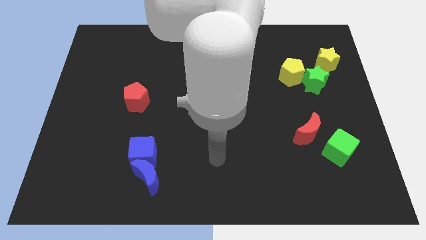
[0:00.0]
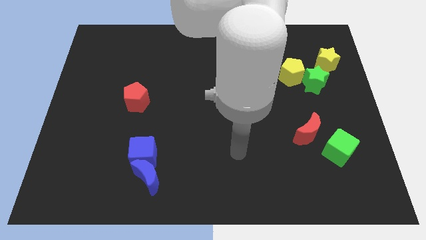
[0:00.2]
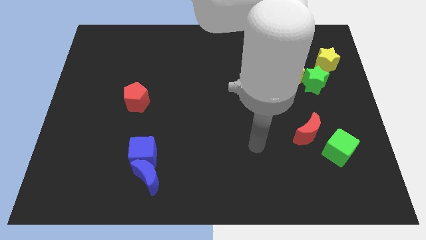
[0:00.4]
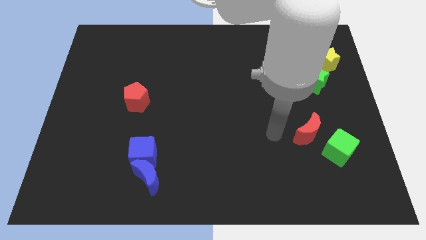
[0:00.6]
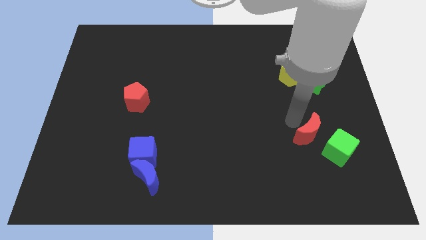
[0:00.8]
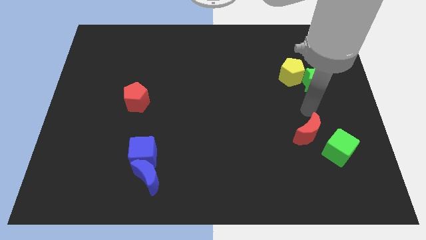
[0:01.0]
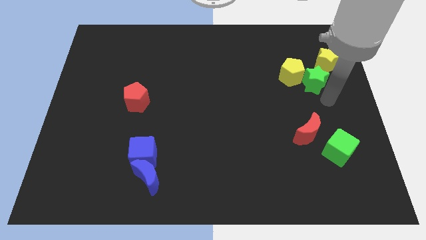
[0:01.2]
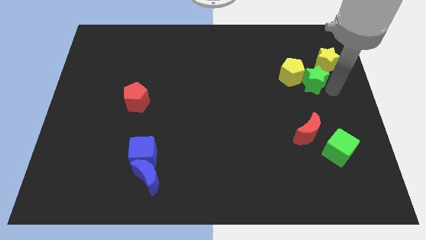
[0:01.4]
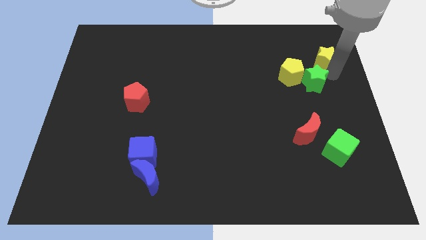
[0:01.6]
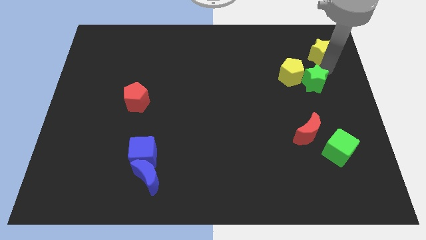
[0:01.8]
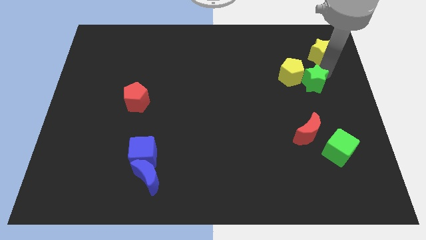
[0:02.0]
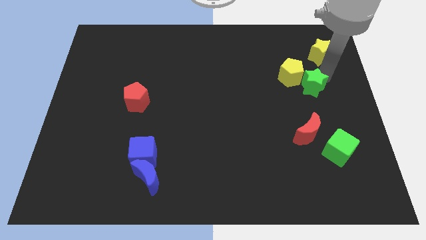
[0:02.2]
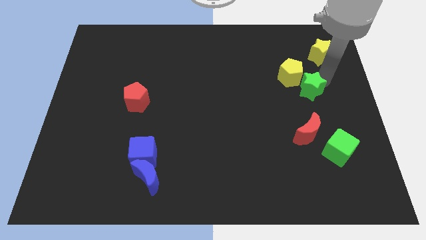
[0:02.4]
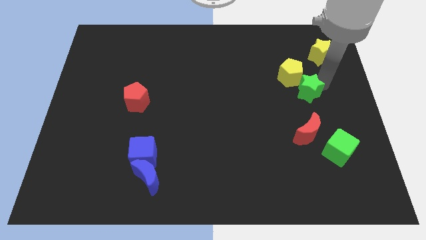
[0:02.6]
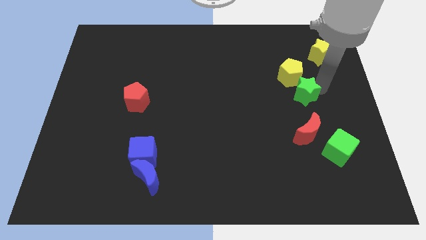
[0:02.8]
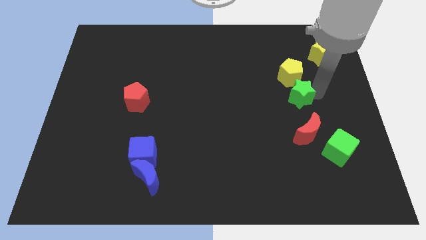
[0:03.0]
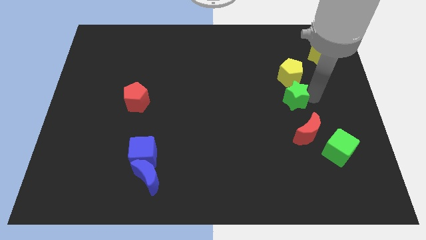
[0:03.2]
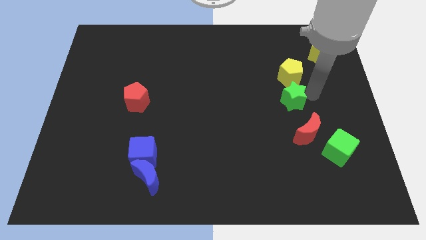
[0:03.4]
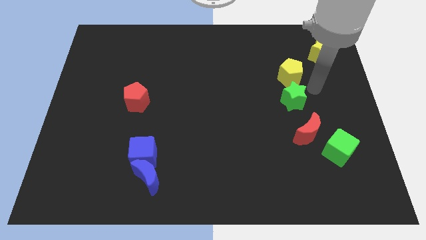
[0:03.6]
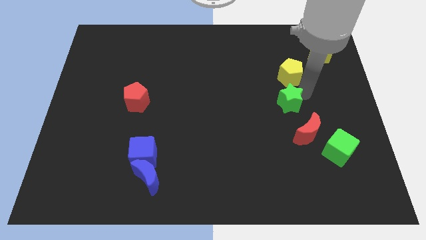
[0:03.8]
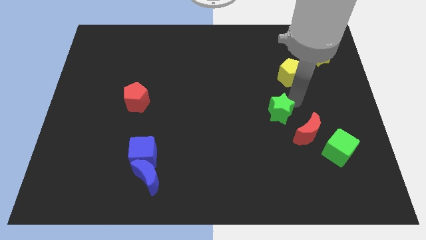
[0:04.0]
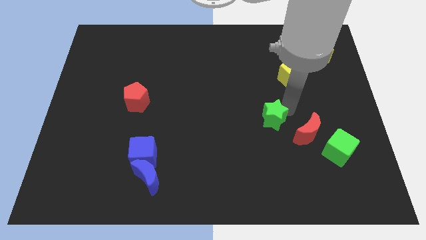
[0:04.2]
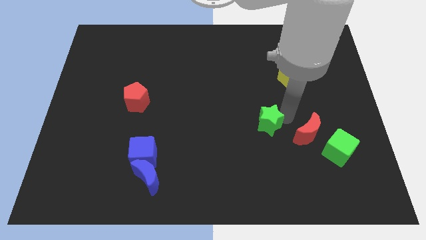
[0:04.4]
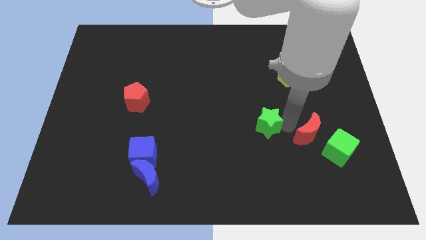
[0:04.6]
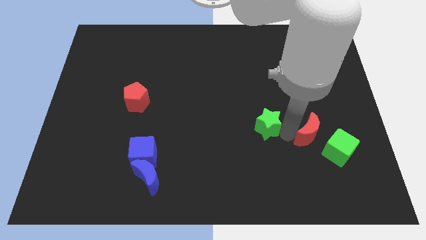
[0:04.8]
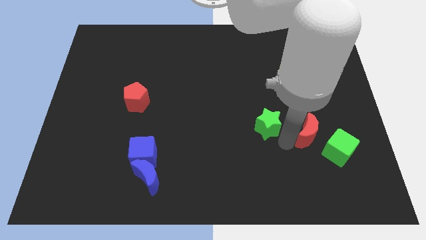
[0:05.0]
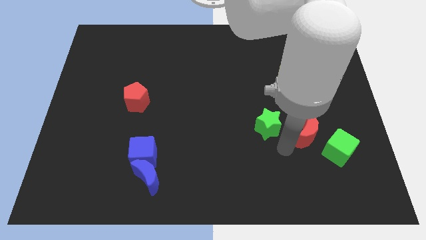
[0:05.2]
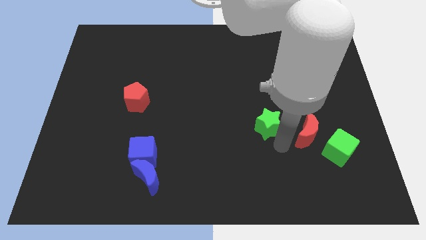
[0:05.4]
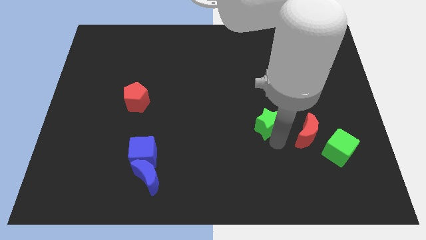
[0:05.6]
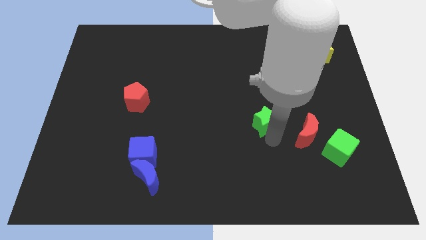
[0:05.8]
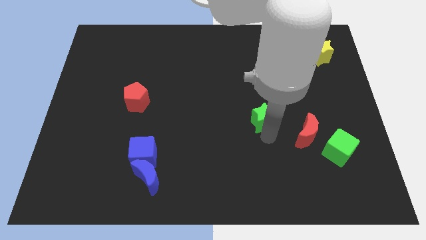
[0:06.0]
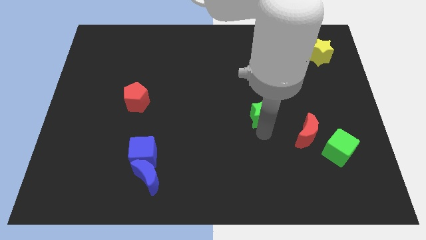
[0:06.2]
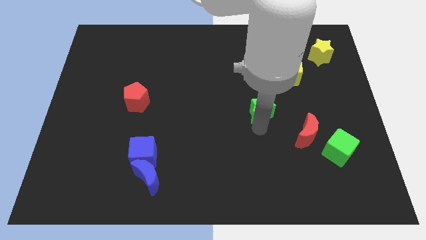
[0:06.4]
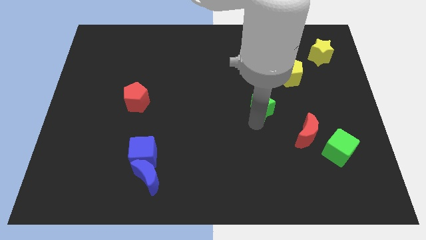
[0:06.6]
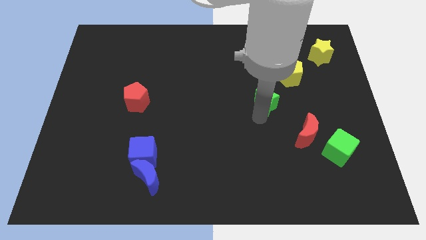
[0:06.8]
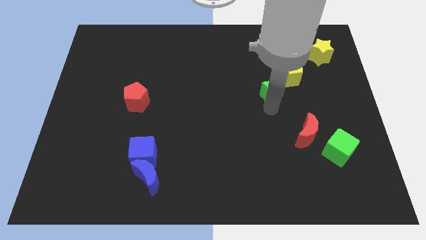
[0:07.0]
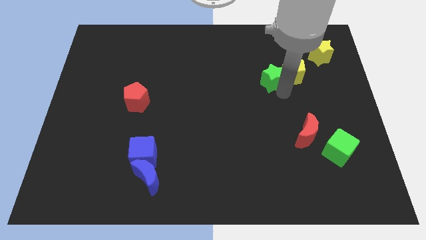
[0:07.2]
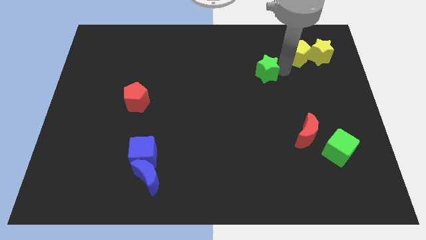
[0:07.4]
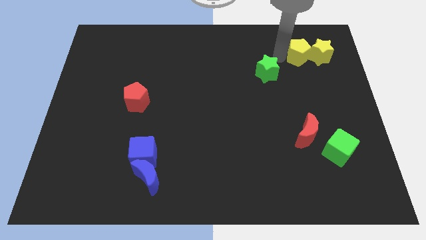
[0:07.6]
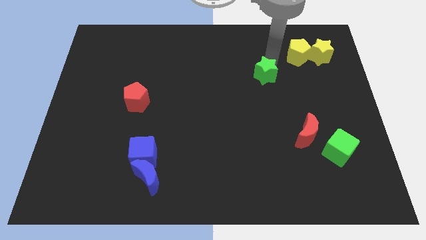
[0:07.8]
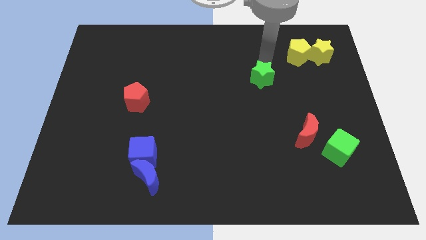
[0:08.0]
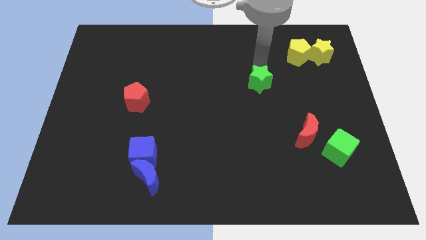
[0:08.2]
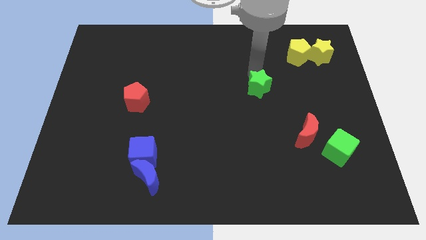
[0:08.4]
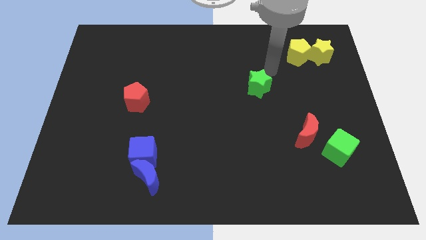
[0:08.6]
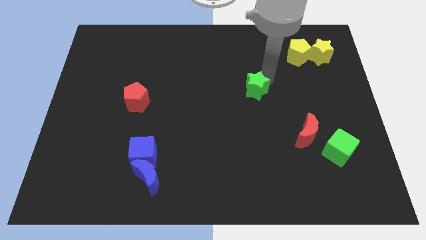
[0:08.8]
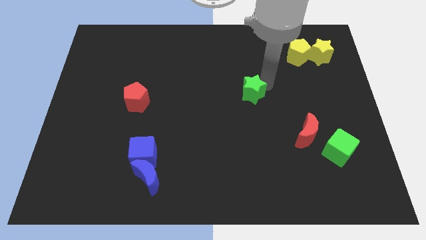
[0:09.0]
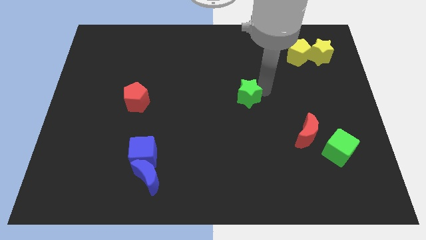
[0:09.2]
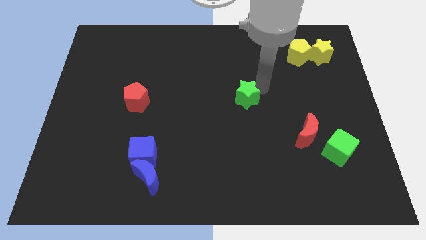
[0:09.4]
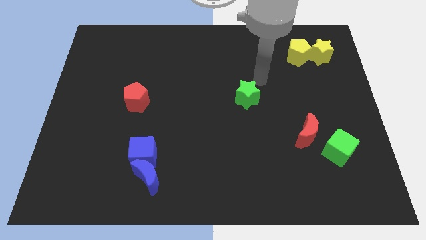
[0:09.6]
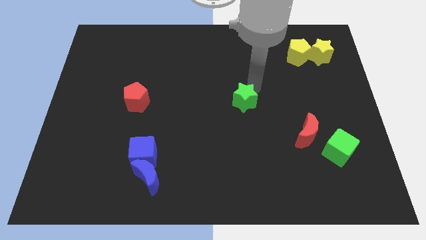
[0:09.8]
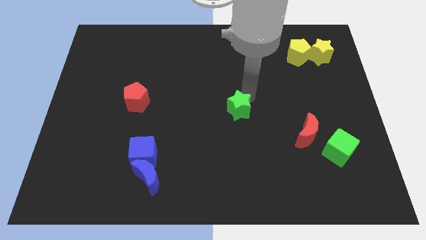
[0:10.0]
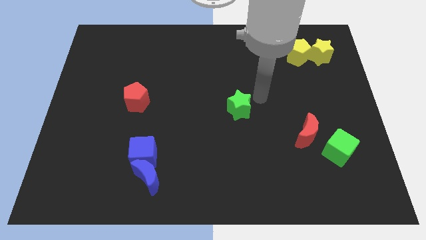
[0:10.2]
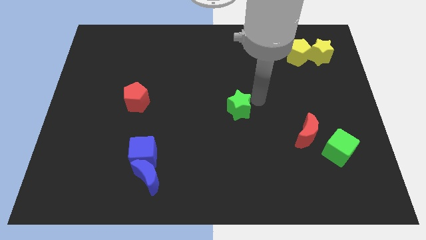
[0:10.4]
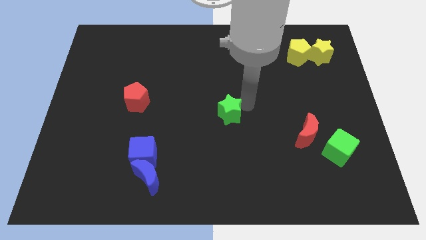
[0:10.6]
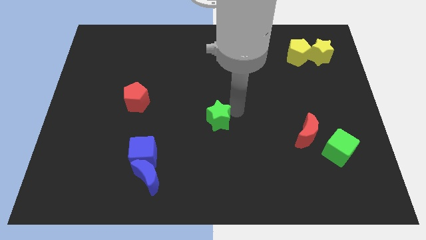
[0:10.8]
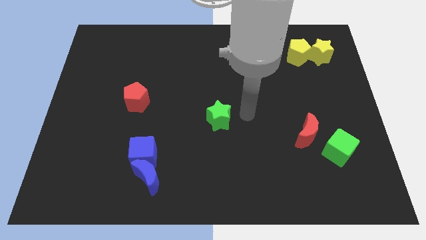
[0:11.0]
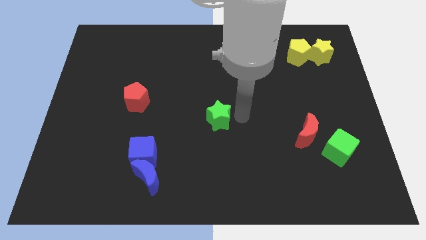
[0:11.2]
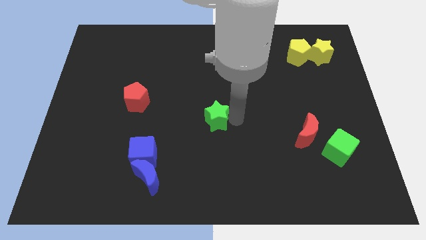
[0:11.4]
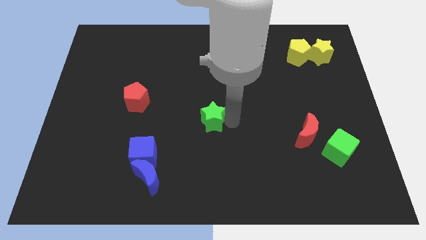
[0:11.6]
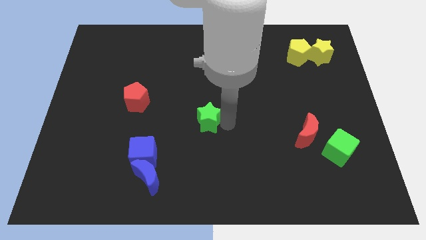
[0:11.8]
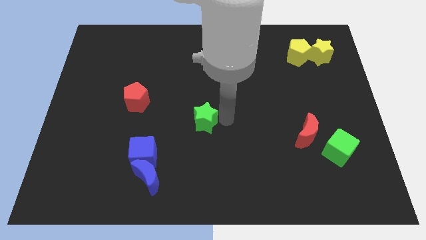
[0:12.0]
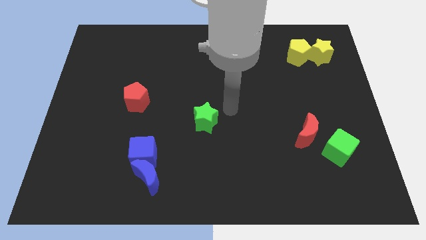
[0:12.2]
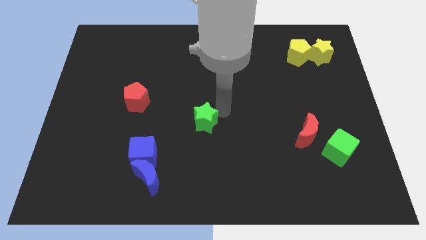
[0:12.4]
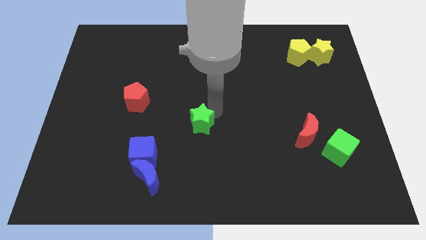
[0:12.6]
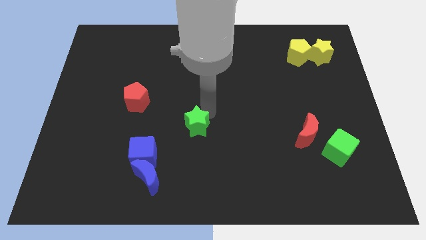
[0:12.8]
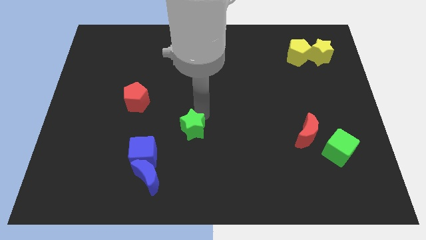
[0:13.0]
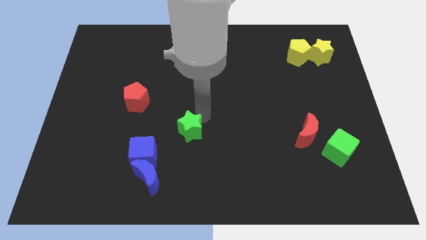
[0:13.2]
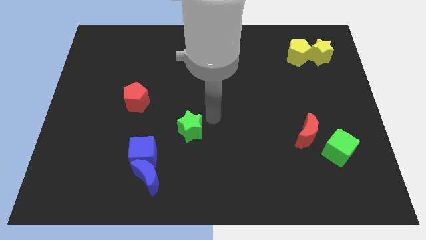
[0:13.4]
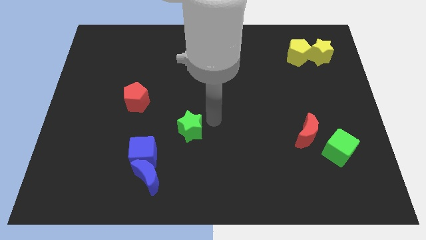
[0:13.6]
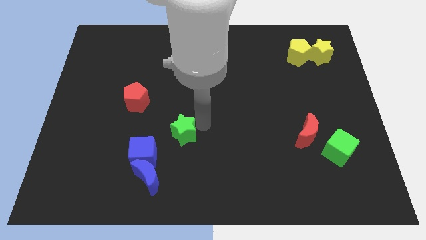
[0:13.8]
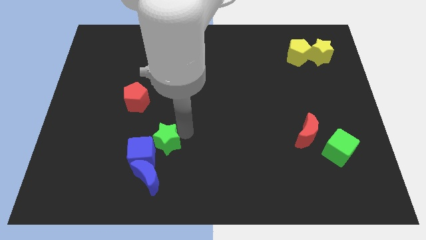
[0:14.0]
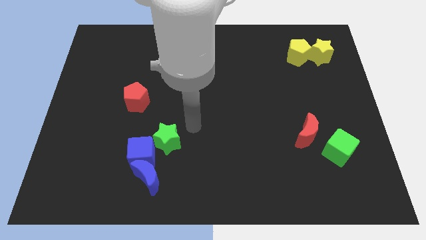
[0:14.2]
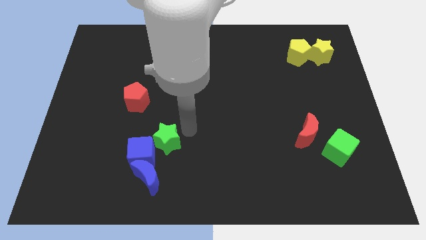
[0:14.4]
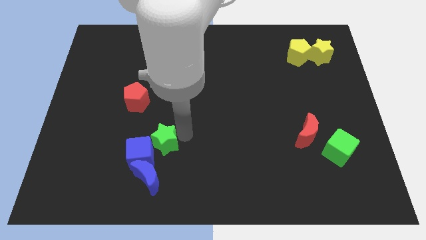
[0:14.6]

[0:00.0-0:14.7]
push the green star close to the blue cube
